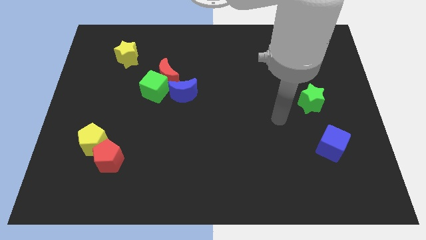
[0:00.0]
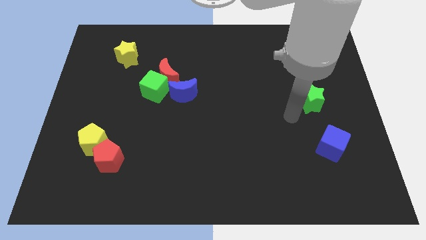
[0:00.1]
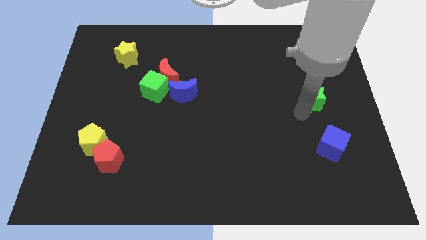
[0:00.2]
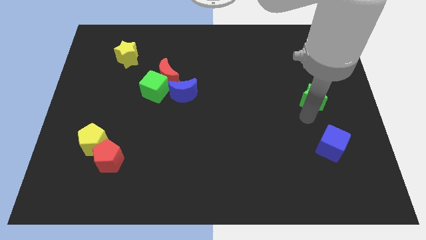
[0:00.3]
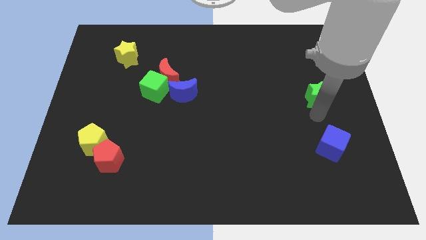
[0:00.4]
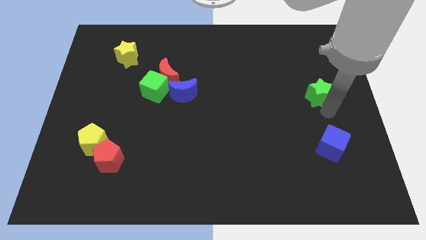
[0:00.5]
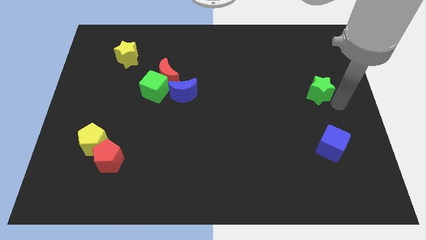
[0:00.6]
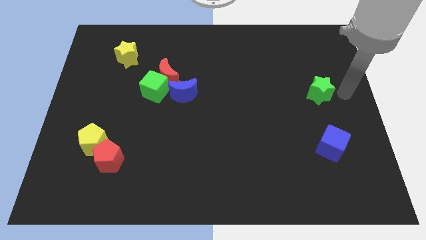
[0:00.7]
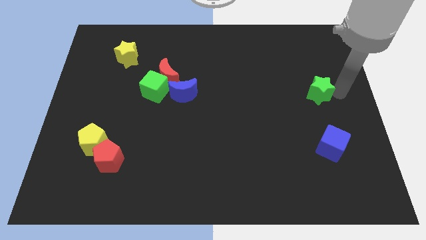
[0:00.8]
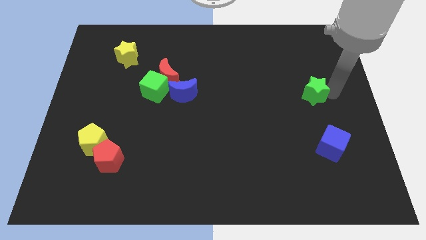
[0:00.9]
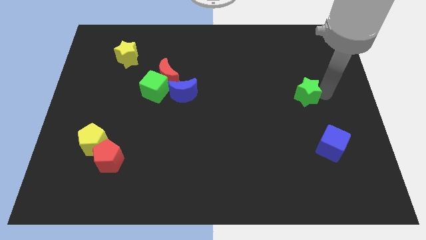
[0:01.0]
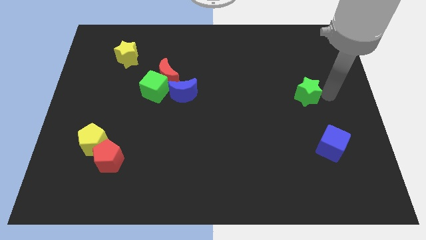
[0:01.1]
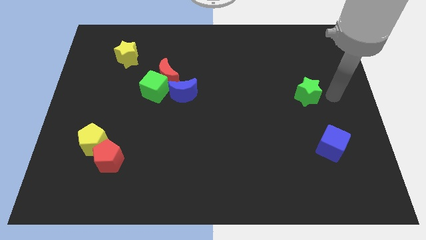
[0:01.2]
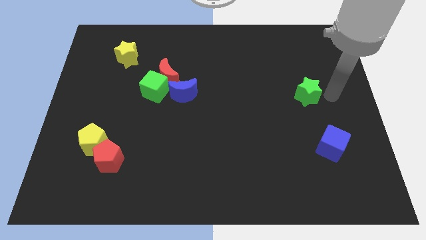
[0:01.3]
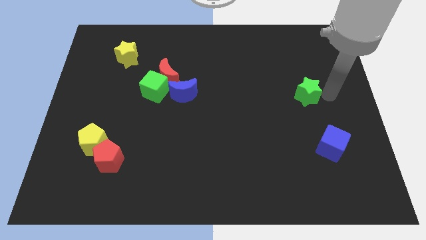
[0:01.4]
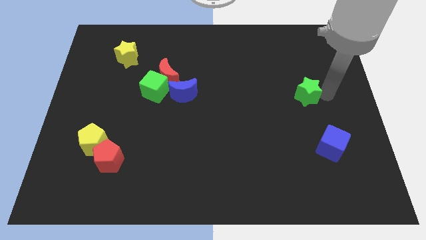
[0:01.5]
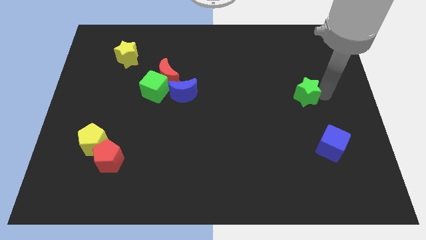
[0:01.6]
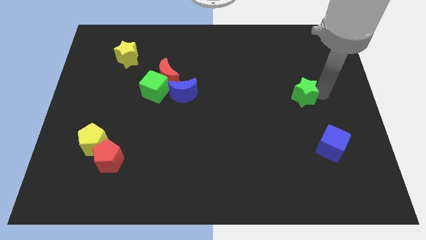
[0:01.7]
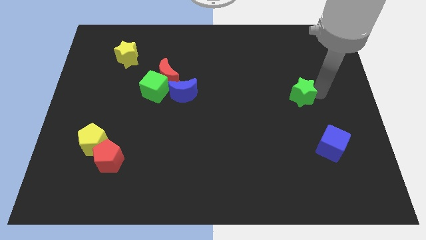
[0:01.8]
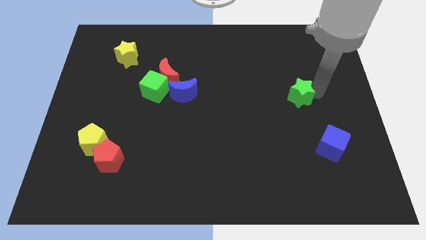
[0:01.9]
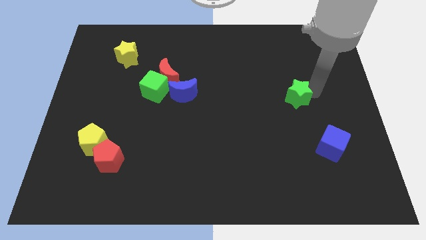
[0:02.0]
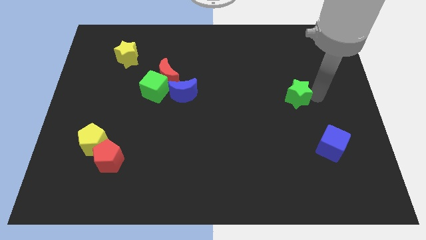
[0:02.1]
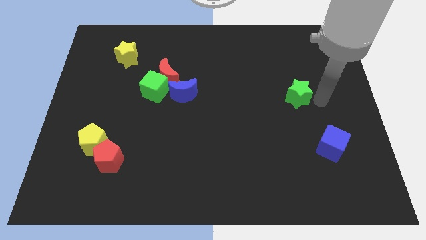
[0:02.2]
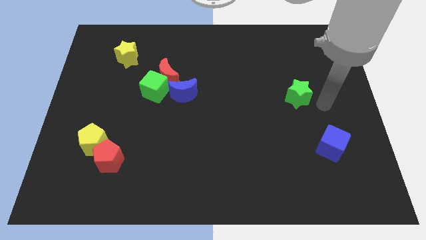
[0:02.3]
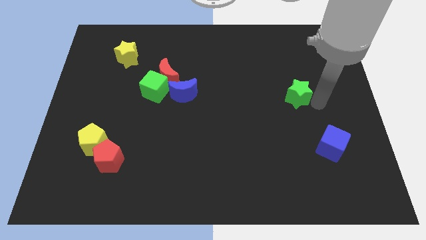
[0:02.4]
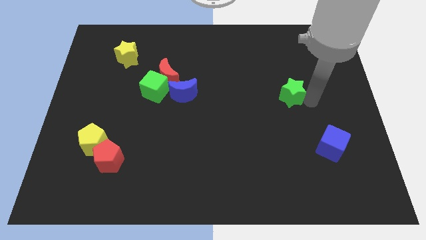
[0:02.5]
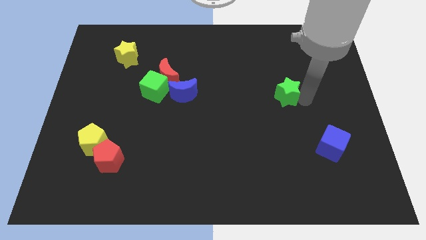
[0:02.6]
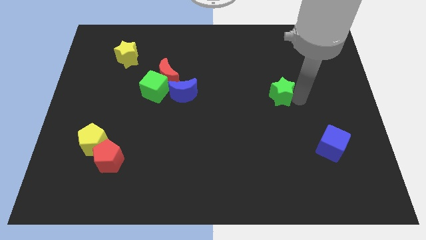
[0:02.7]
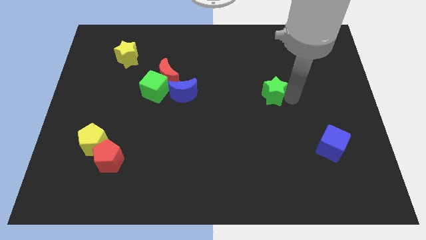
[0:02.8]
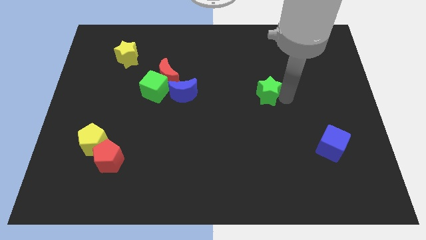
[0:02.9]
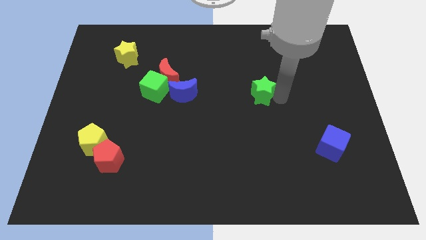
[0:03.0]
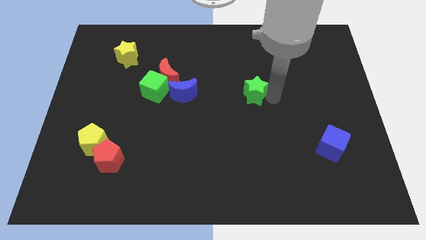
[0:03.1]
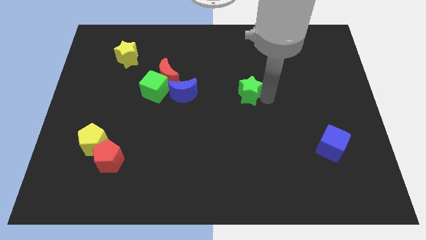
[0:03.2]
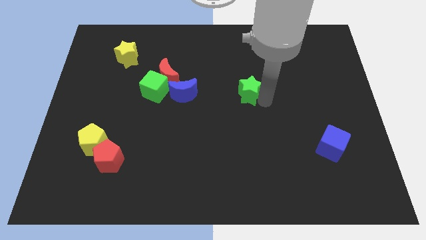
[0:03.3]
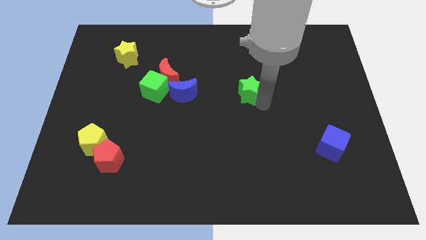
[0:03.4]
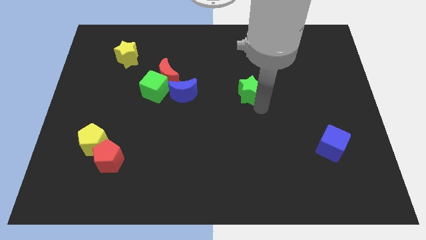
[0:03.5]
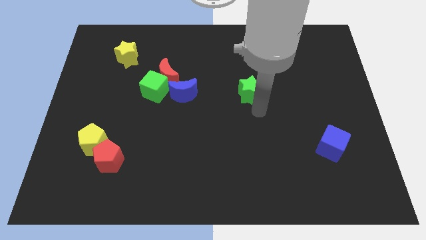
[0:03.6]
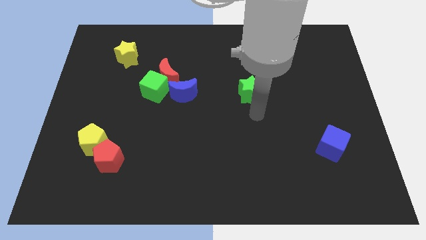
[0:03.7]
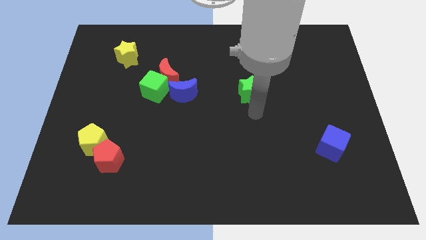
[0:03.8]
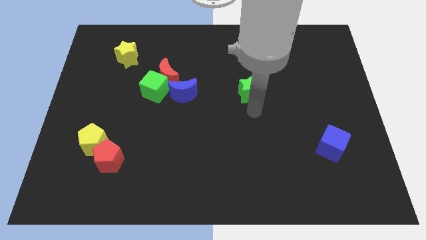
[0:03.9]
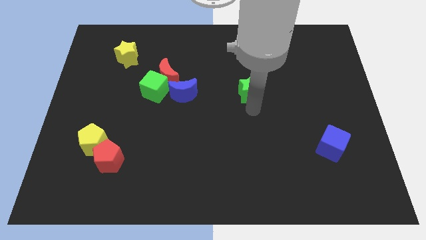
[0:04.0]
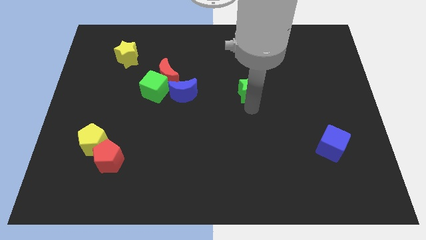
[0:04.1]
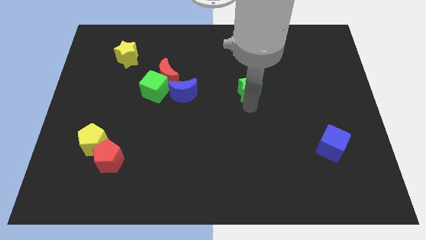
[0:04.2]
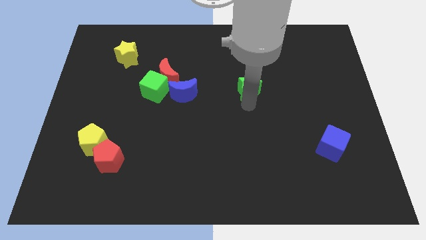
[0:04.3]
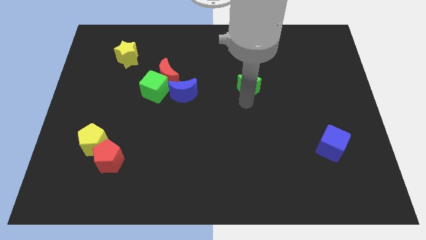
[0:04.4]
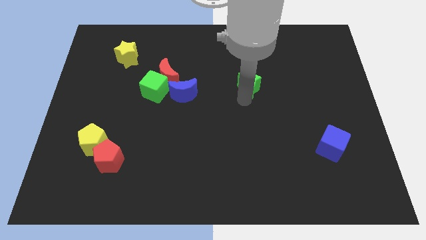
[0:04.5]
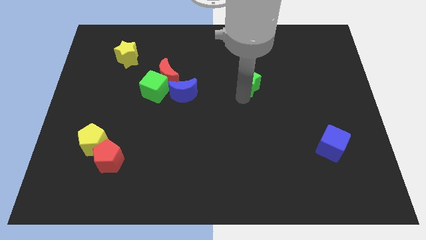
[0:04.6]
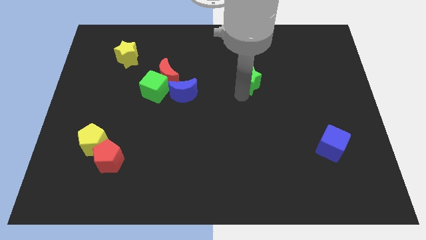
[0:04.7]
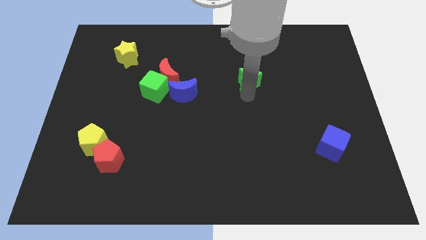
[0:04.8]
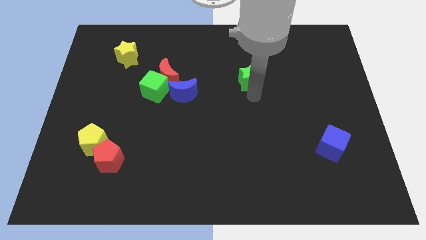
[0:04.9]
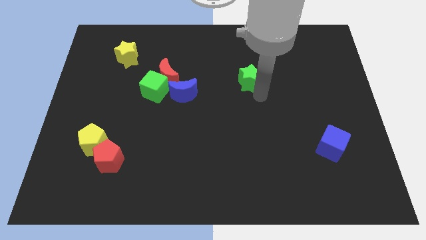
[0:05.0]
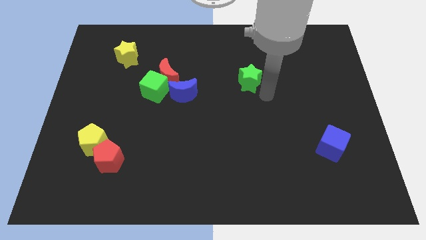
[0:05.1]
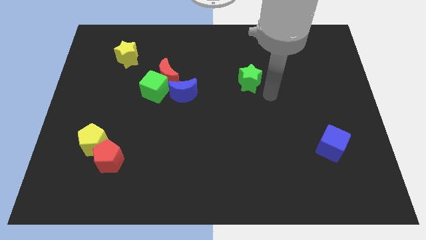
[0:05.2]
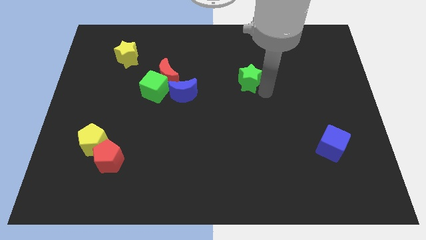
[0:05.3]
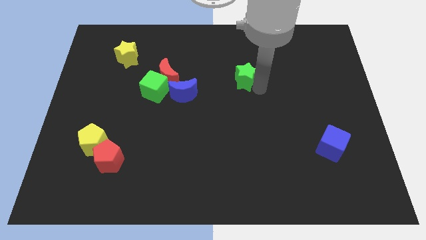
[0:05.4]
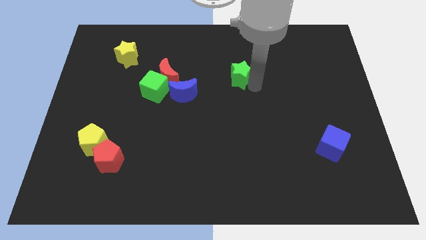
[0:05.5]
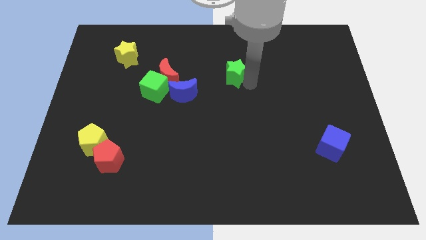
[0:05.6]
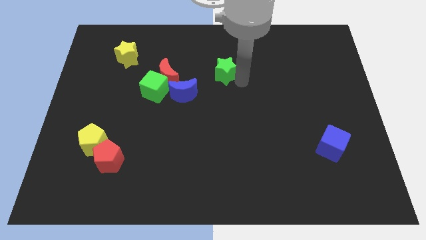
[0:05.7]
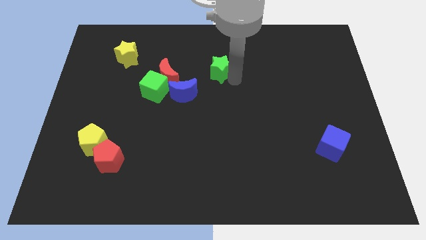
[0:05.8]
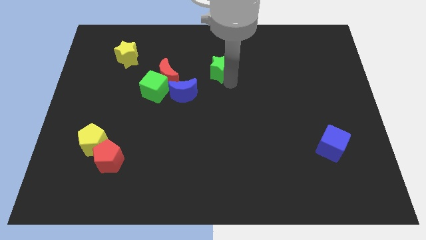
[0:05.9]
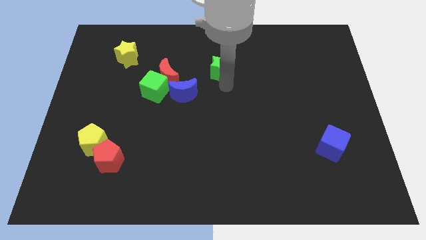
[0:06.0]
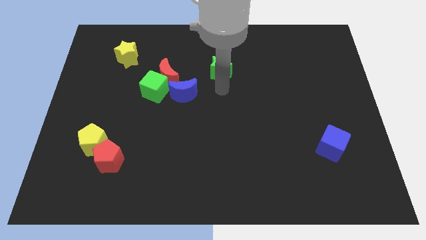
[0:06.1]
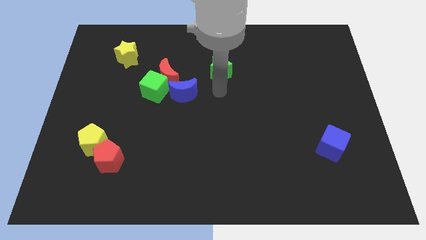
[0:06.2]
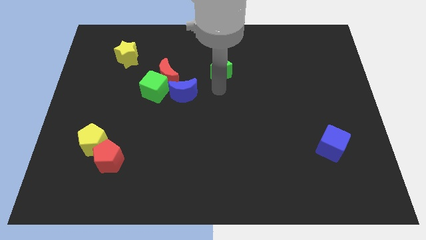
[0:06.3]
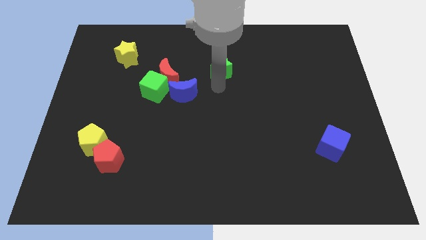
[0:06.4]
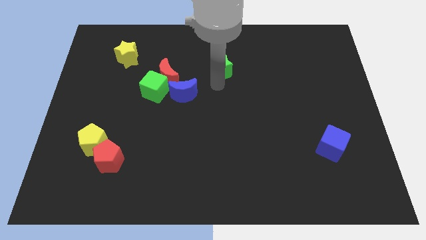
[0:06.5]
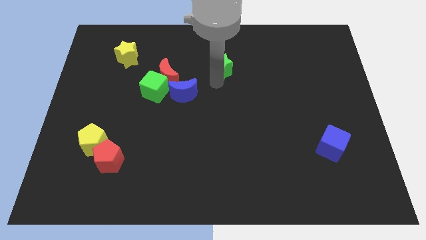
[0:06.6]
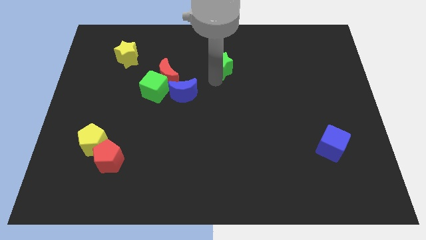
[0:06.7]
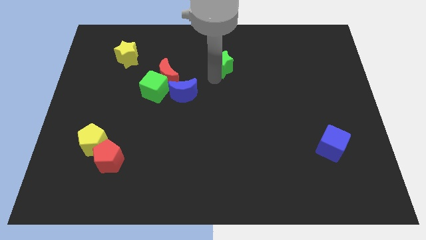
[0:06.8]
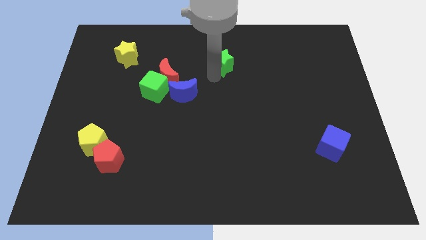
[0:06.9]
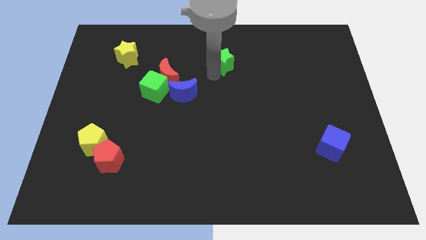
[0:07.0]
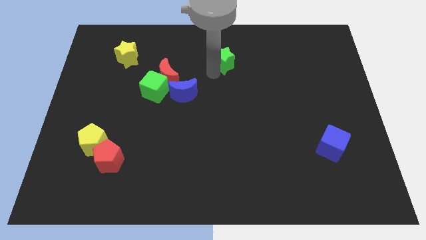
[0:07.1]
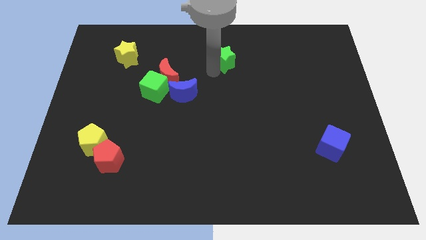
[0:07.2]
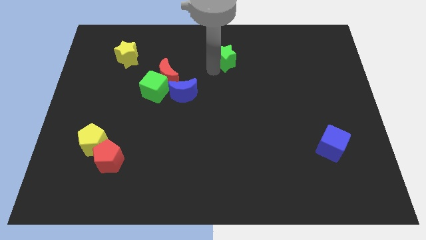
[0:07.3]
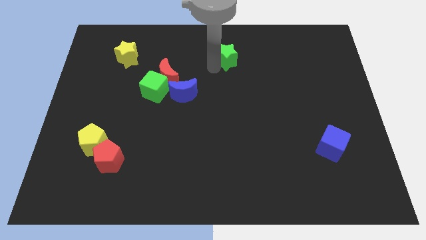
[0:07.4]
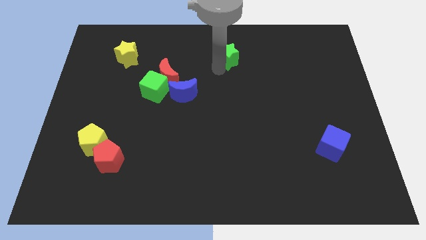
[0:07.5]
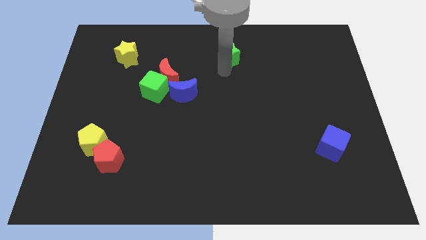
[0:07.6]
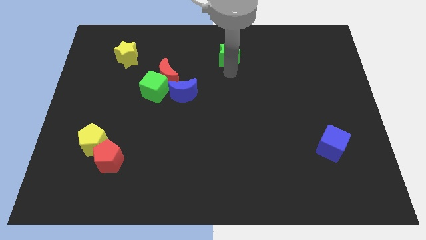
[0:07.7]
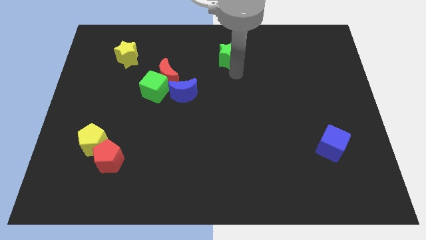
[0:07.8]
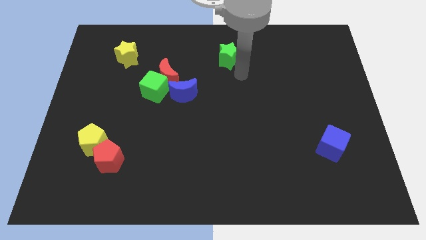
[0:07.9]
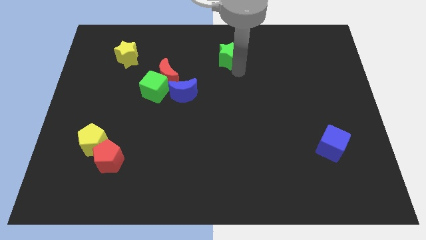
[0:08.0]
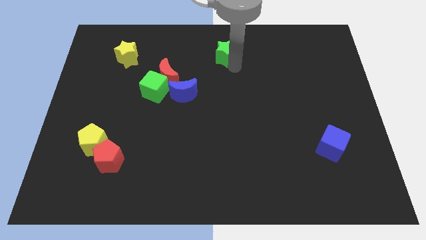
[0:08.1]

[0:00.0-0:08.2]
slide the green star to the towards your base
